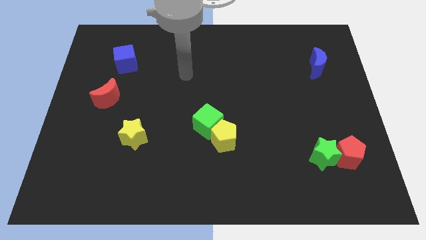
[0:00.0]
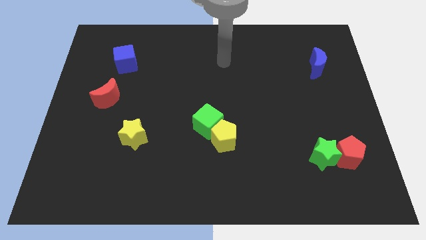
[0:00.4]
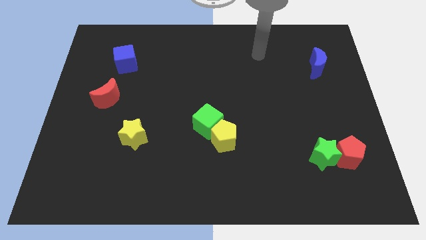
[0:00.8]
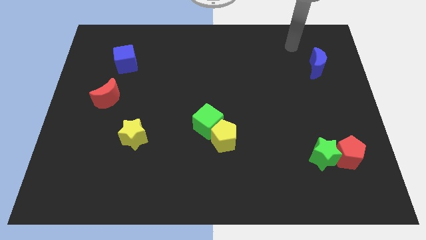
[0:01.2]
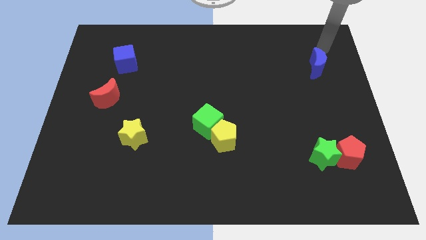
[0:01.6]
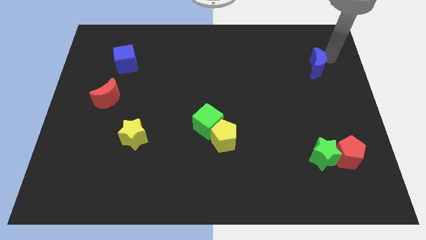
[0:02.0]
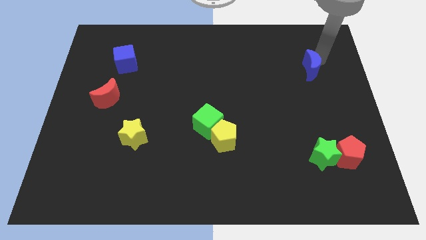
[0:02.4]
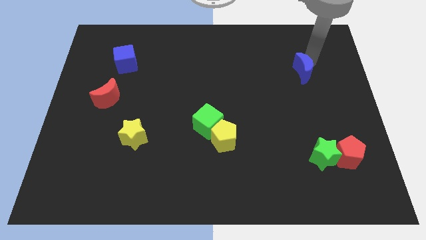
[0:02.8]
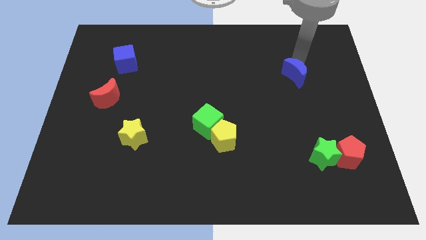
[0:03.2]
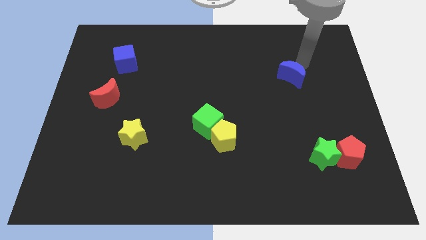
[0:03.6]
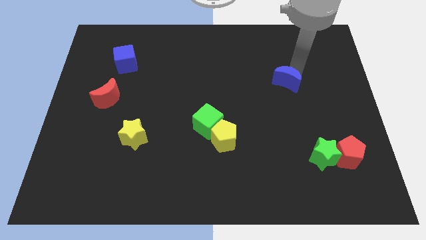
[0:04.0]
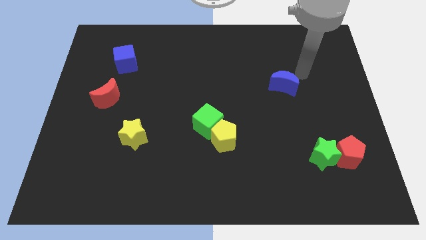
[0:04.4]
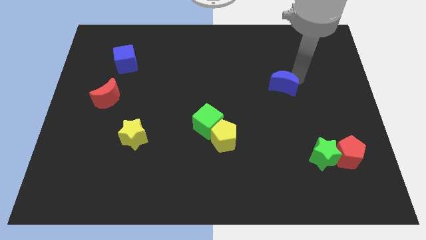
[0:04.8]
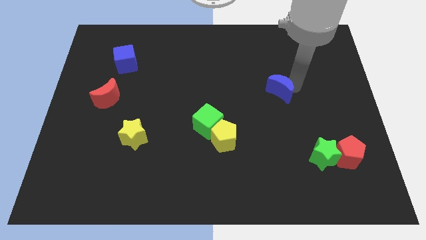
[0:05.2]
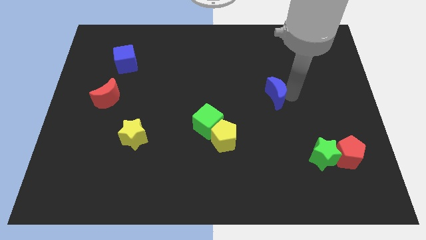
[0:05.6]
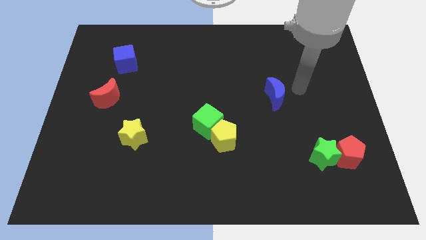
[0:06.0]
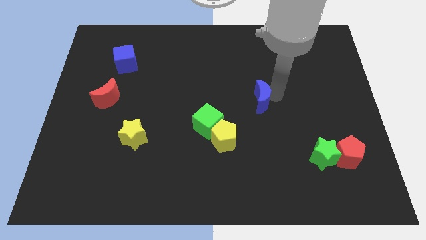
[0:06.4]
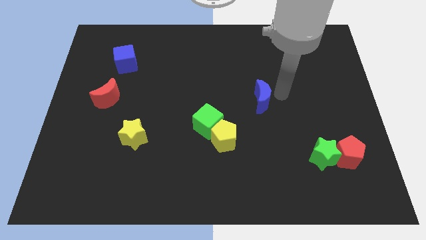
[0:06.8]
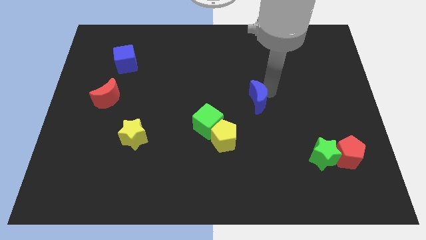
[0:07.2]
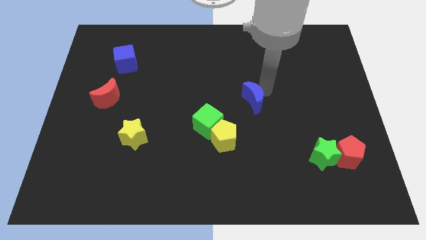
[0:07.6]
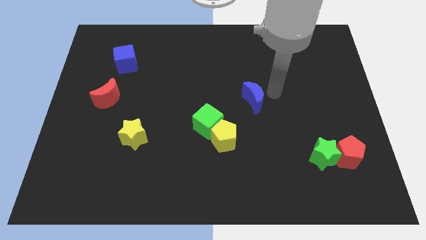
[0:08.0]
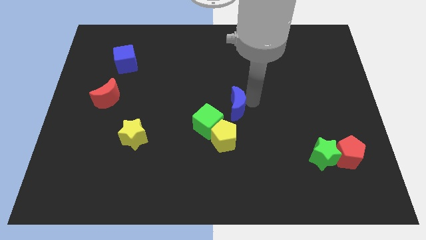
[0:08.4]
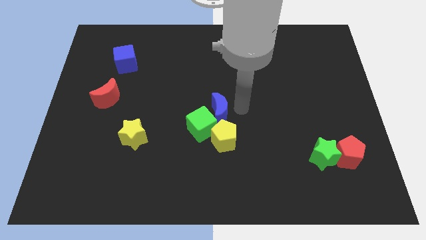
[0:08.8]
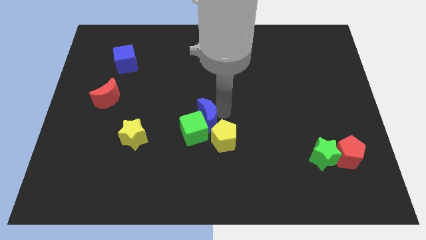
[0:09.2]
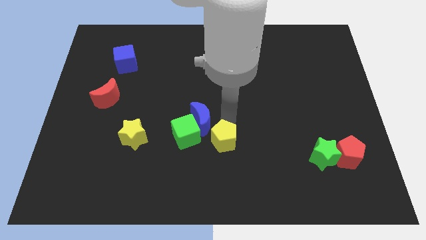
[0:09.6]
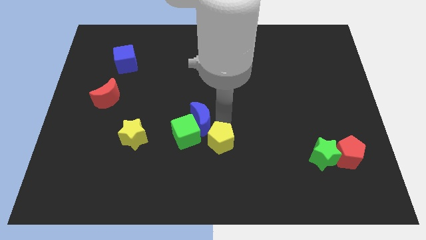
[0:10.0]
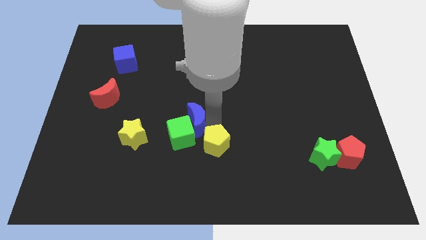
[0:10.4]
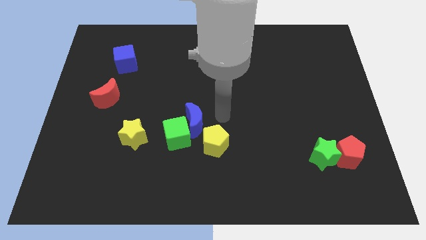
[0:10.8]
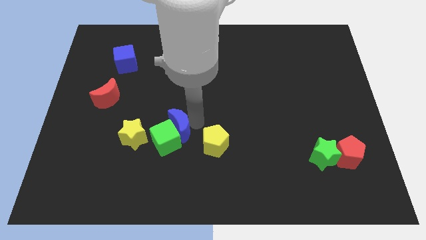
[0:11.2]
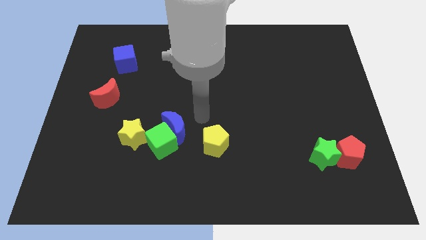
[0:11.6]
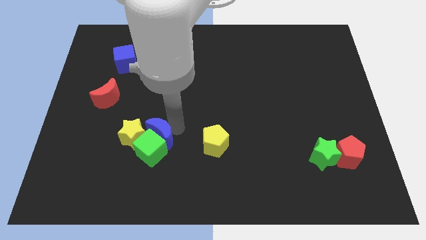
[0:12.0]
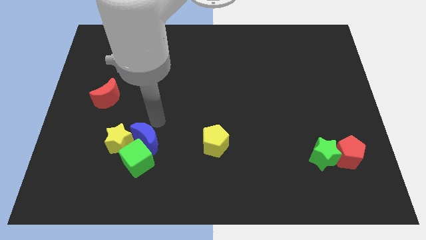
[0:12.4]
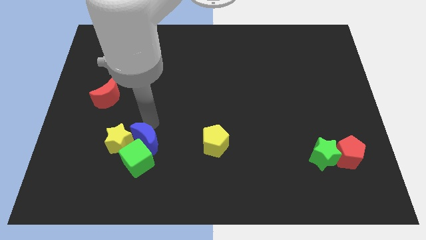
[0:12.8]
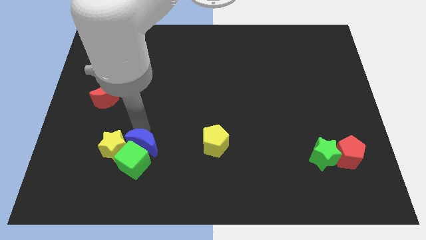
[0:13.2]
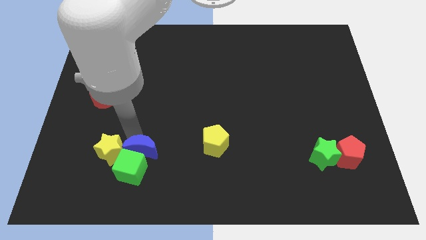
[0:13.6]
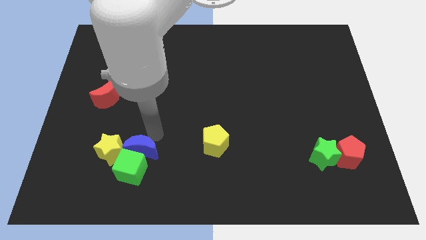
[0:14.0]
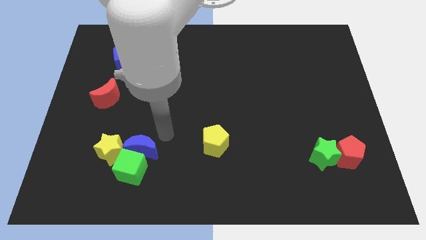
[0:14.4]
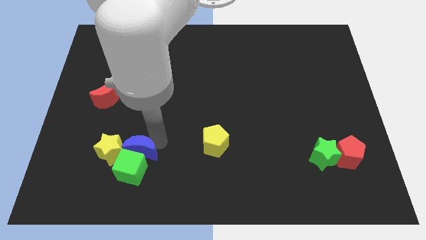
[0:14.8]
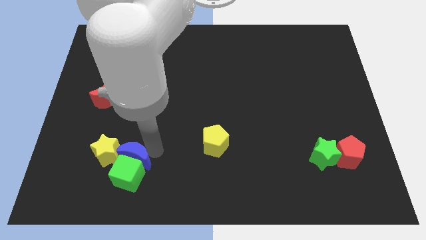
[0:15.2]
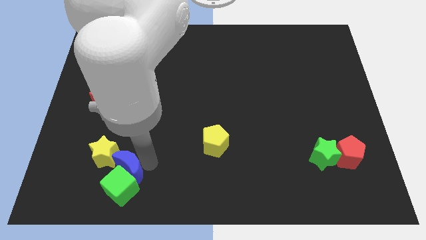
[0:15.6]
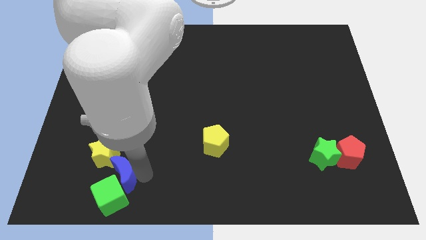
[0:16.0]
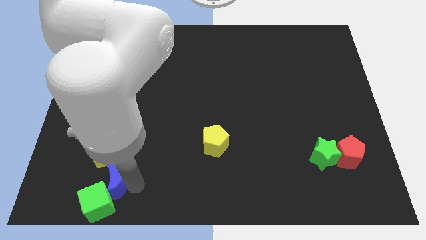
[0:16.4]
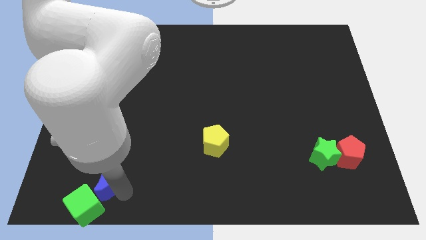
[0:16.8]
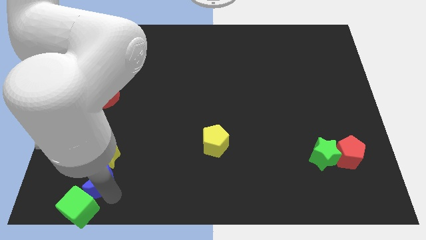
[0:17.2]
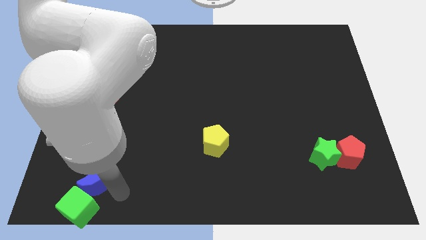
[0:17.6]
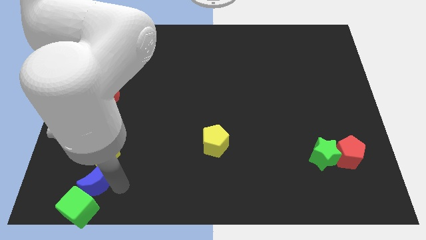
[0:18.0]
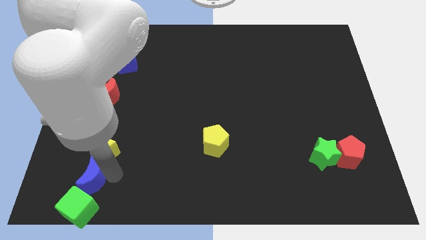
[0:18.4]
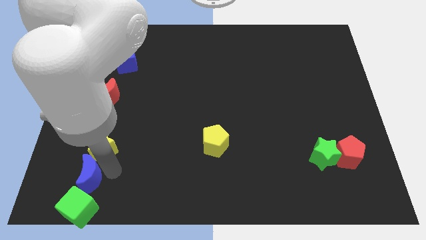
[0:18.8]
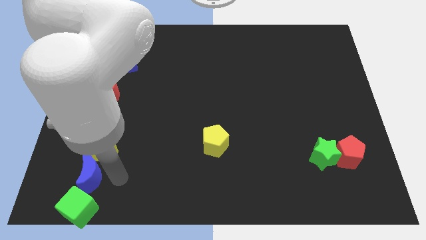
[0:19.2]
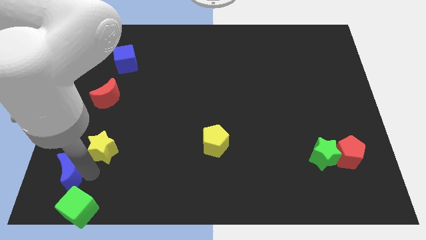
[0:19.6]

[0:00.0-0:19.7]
slide the blue moon to the bottom left corner

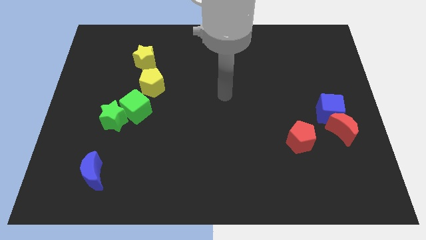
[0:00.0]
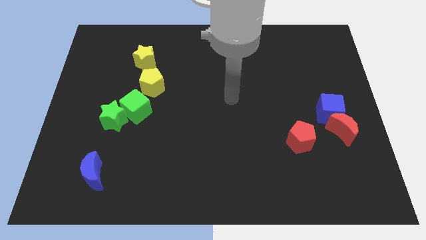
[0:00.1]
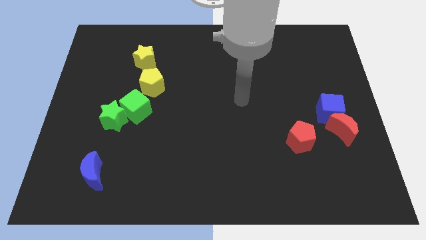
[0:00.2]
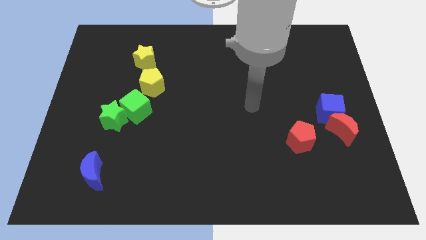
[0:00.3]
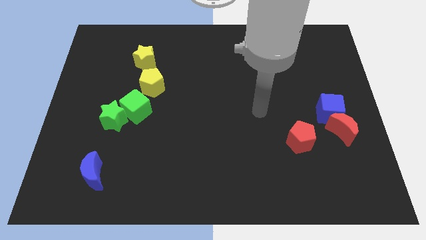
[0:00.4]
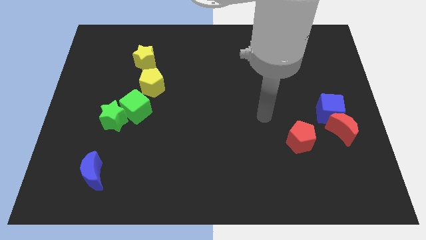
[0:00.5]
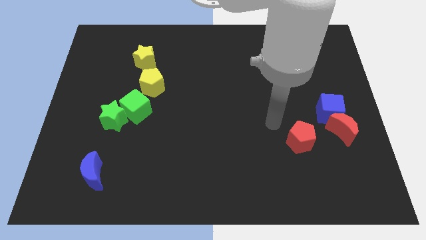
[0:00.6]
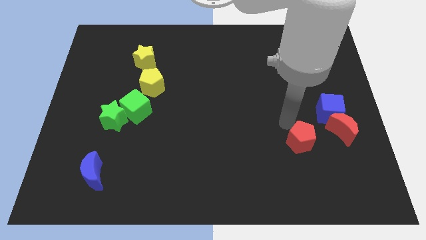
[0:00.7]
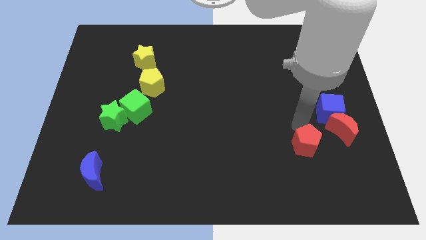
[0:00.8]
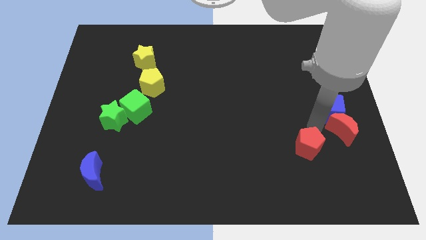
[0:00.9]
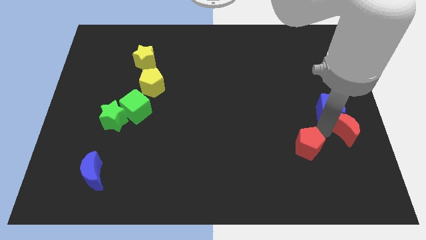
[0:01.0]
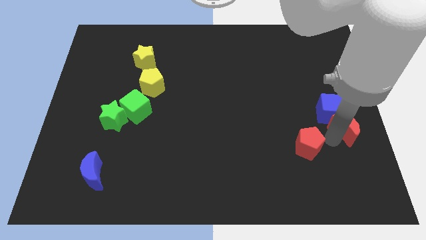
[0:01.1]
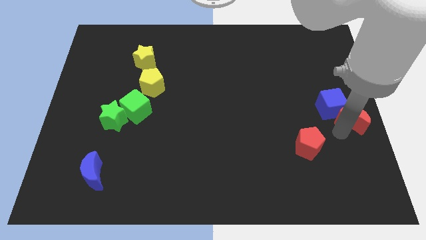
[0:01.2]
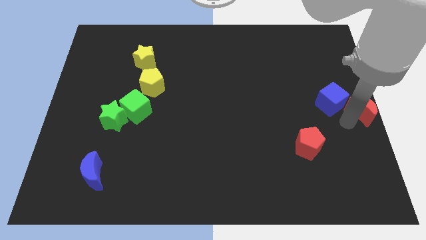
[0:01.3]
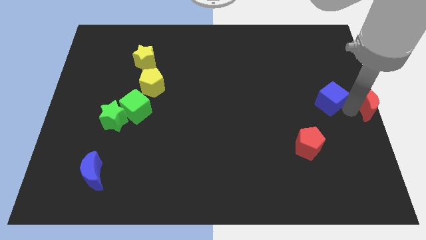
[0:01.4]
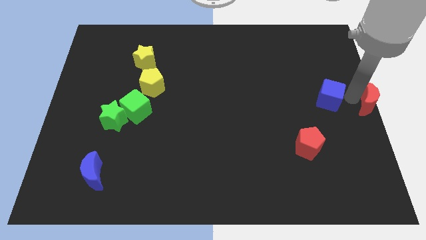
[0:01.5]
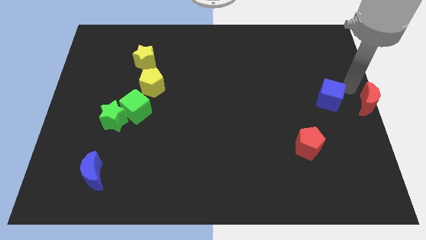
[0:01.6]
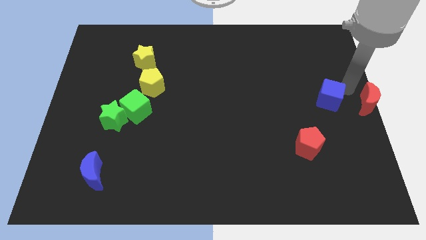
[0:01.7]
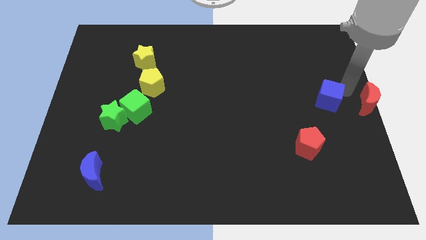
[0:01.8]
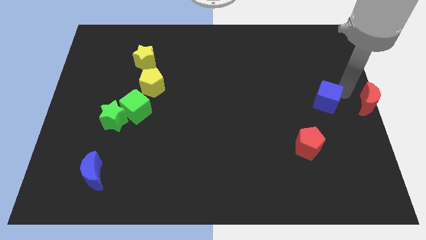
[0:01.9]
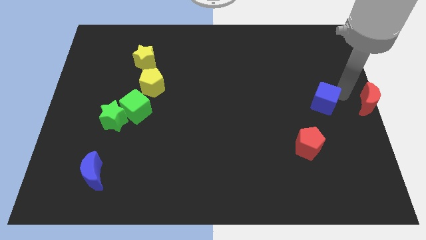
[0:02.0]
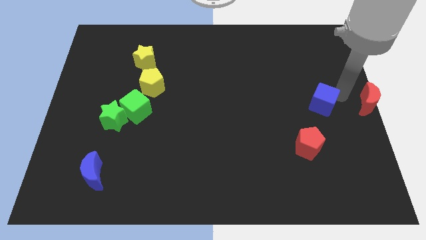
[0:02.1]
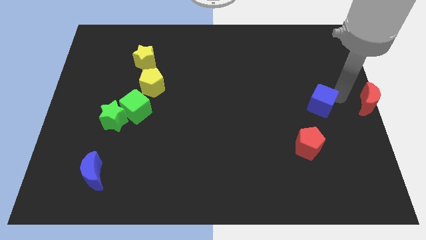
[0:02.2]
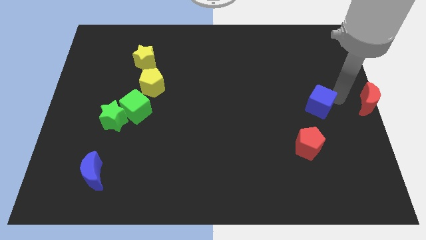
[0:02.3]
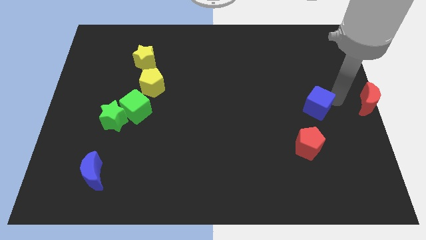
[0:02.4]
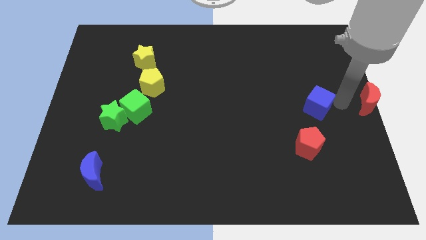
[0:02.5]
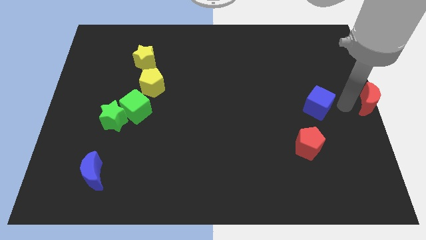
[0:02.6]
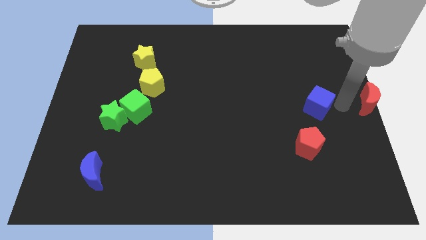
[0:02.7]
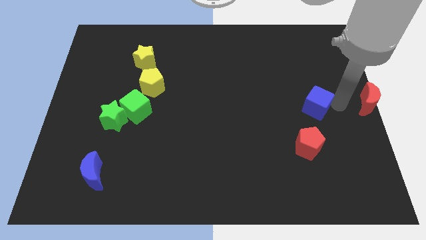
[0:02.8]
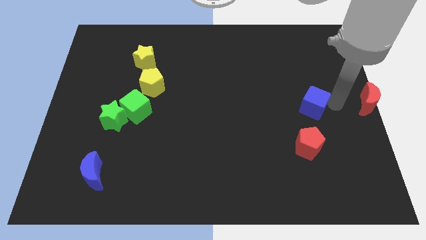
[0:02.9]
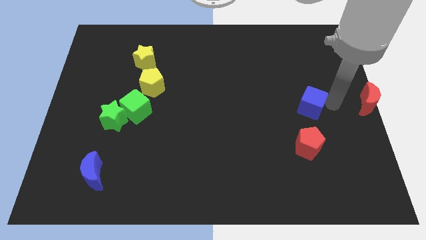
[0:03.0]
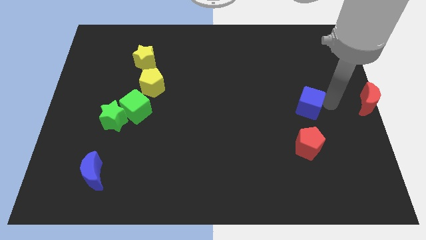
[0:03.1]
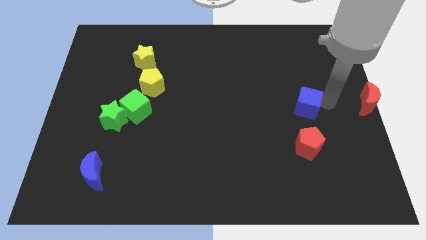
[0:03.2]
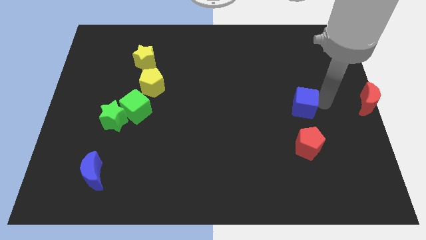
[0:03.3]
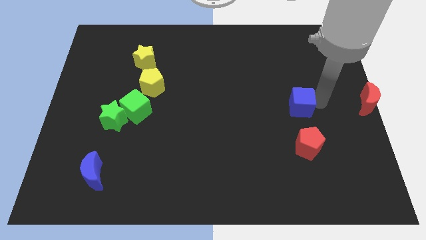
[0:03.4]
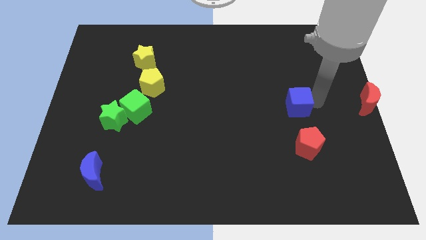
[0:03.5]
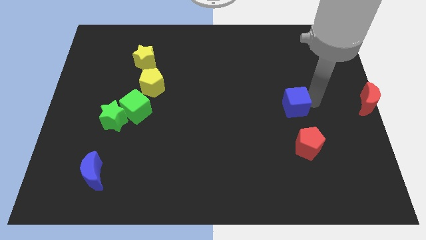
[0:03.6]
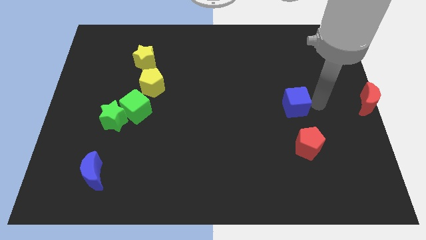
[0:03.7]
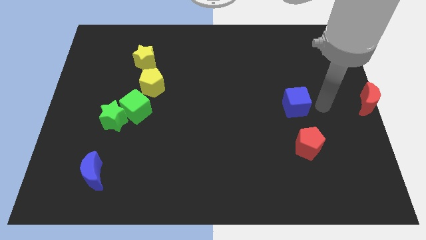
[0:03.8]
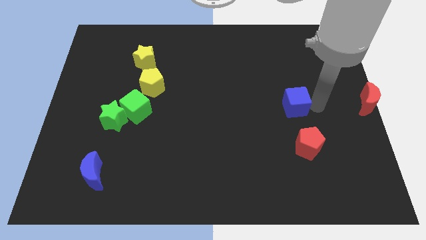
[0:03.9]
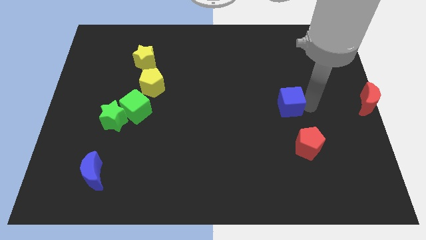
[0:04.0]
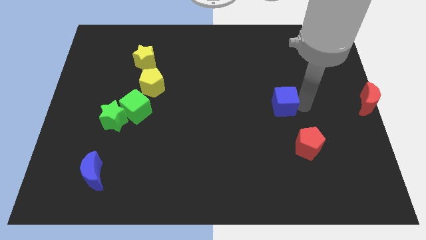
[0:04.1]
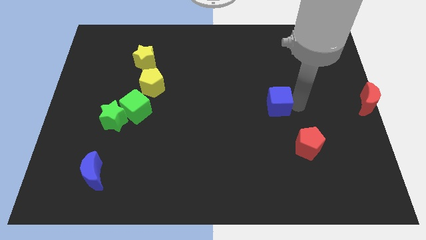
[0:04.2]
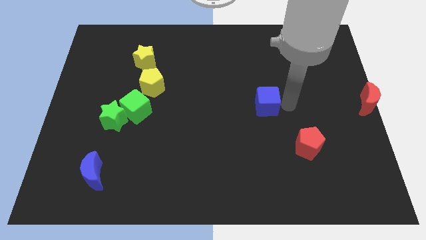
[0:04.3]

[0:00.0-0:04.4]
slide the blue cube to the middle
